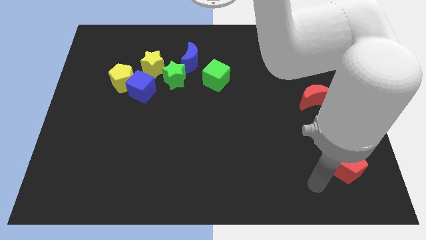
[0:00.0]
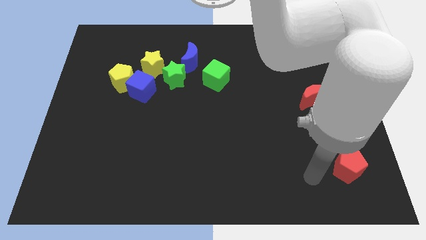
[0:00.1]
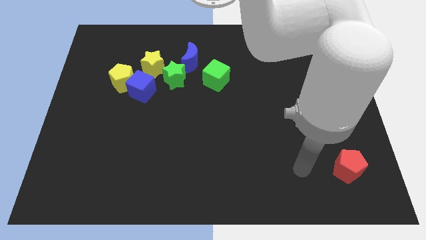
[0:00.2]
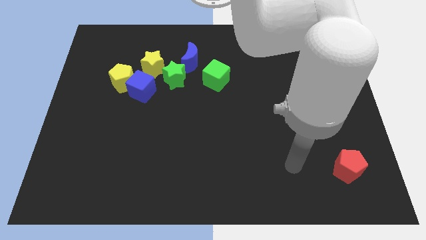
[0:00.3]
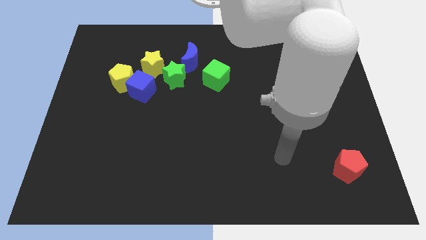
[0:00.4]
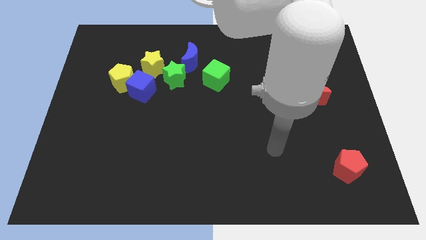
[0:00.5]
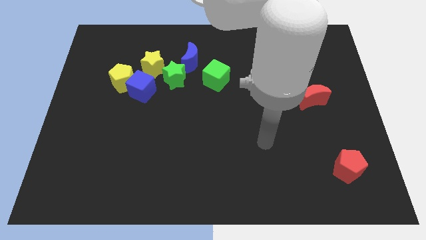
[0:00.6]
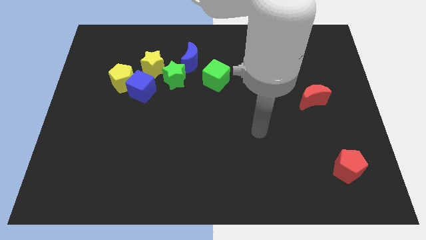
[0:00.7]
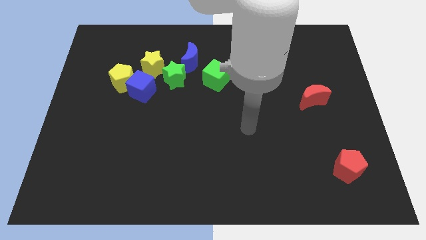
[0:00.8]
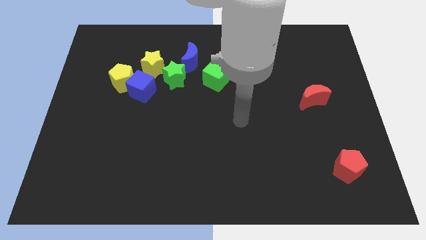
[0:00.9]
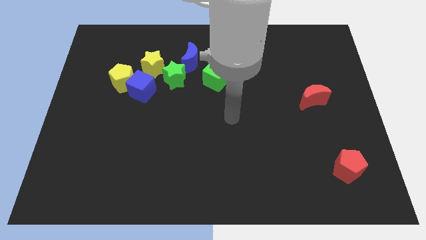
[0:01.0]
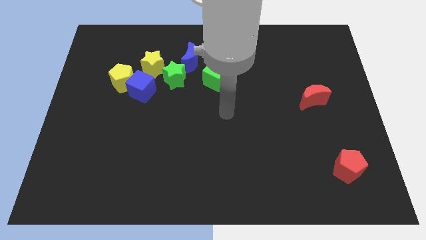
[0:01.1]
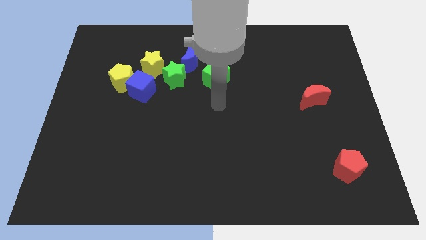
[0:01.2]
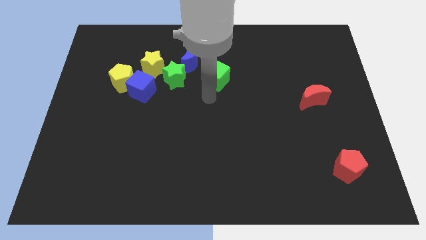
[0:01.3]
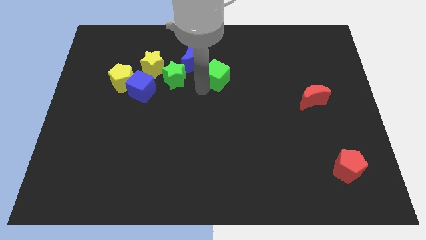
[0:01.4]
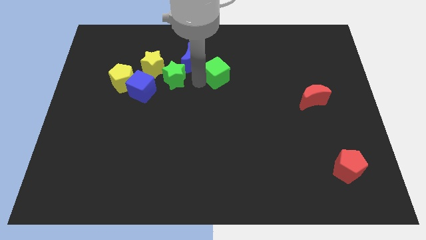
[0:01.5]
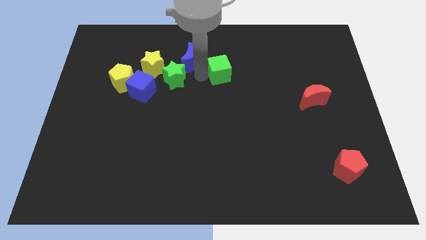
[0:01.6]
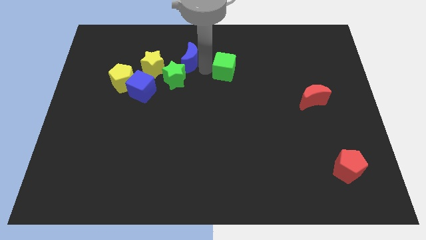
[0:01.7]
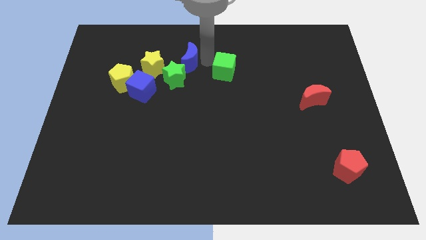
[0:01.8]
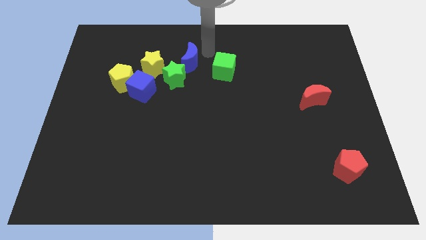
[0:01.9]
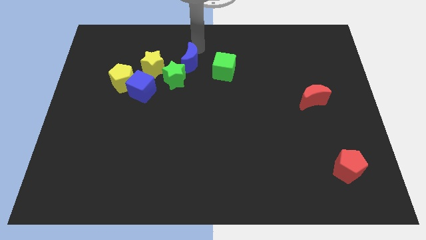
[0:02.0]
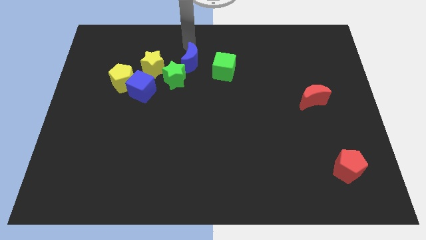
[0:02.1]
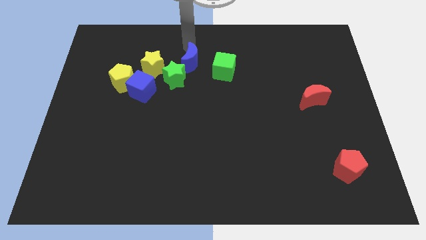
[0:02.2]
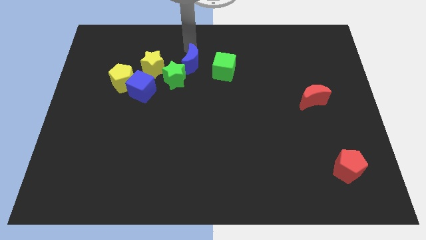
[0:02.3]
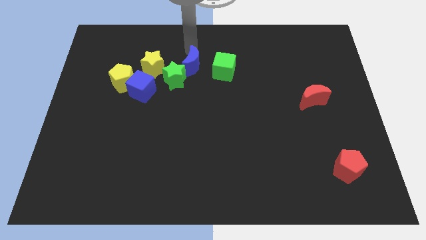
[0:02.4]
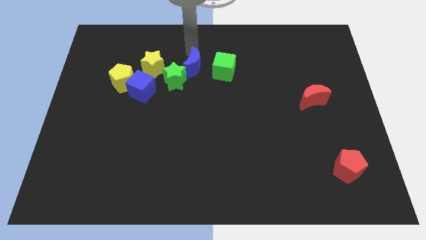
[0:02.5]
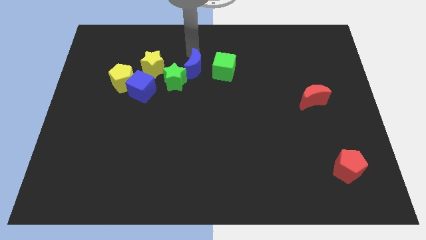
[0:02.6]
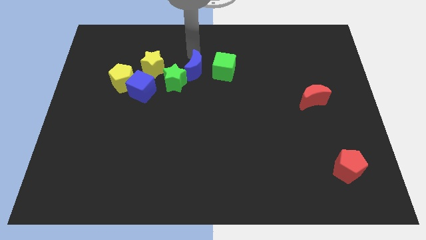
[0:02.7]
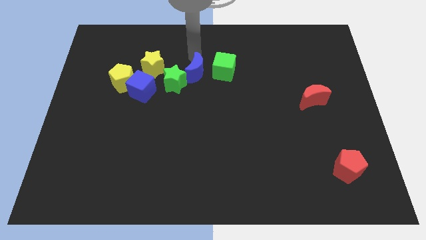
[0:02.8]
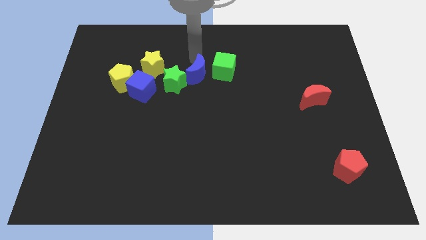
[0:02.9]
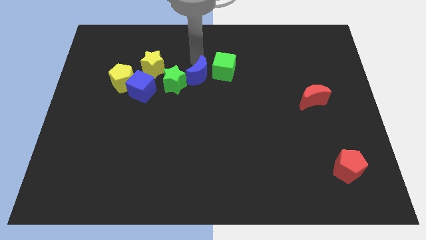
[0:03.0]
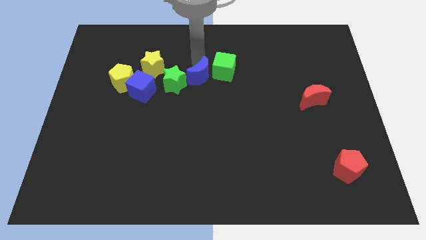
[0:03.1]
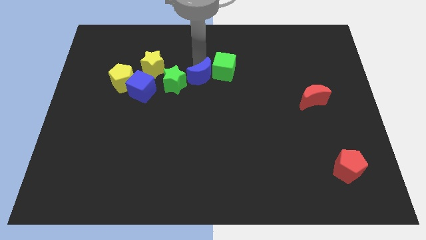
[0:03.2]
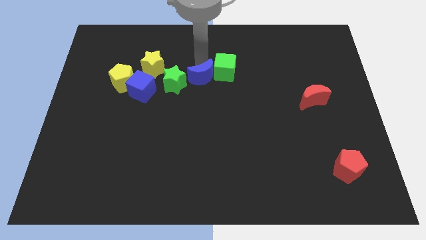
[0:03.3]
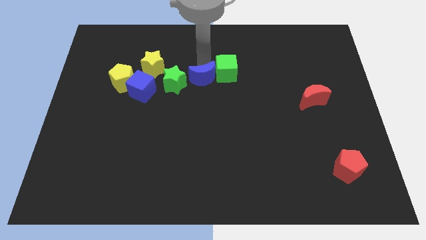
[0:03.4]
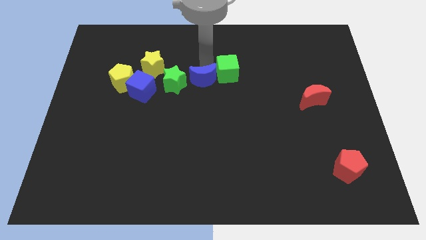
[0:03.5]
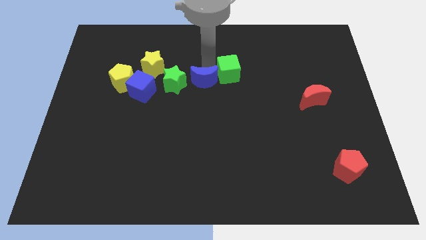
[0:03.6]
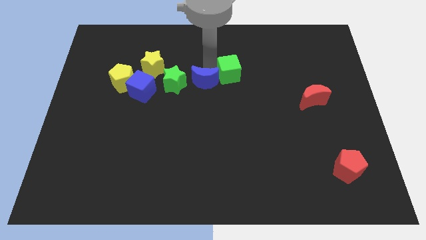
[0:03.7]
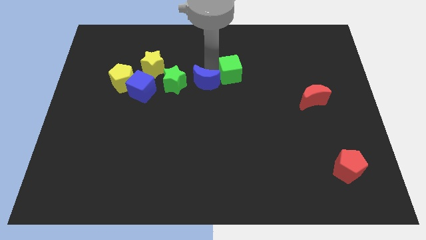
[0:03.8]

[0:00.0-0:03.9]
push the blue moon downwards a bit

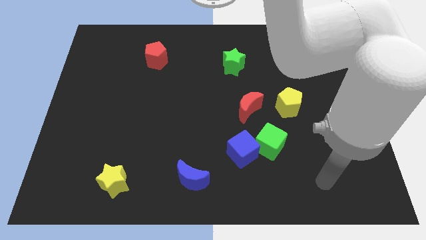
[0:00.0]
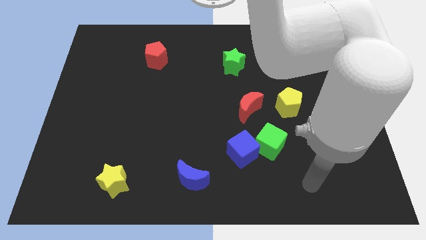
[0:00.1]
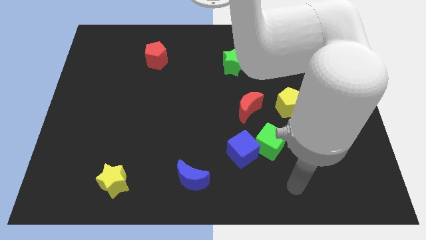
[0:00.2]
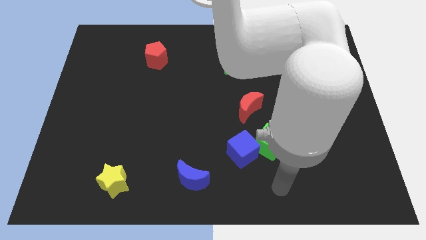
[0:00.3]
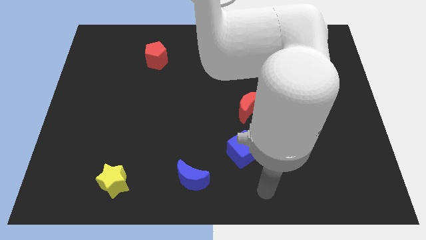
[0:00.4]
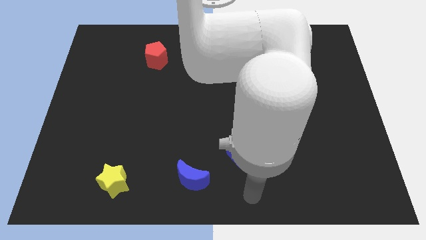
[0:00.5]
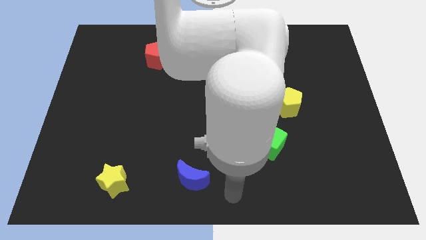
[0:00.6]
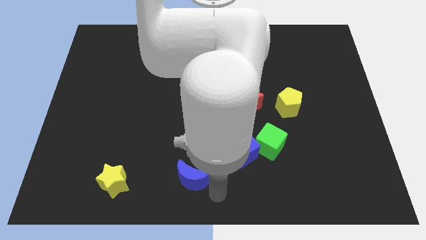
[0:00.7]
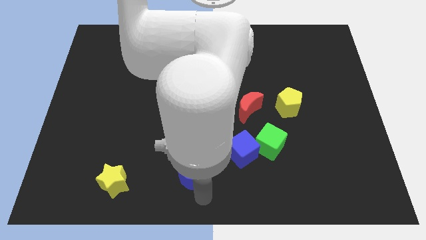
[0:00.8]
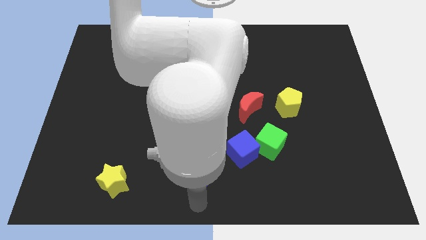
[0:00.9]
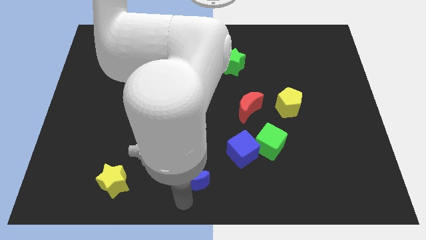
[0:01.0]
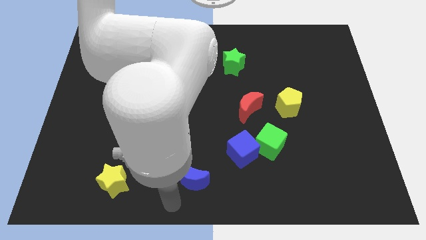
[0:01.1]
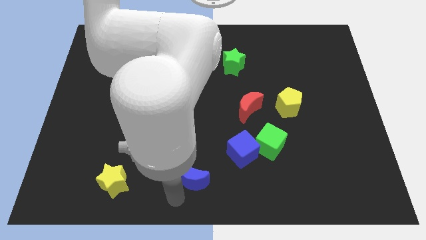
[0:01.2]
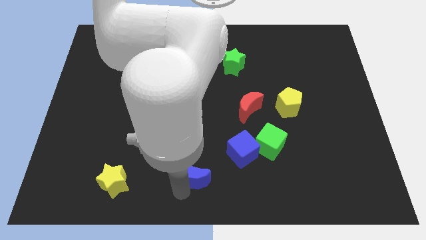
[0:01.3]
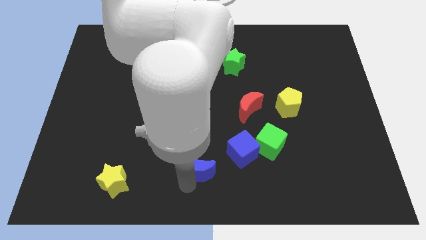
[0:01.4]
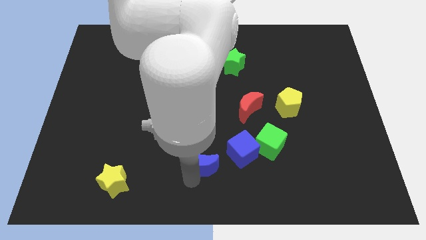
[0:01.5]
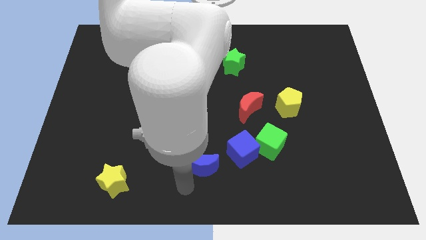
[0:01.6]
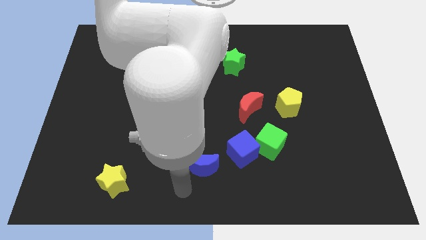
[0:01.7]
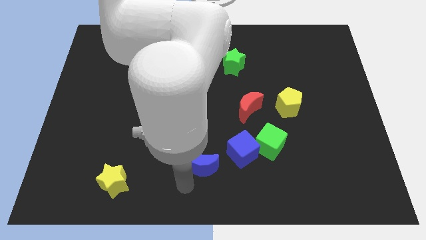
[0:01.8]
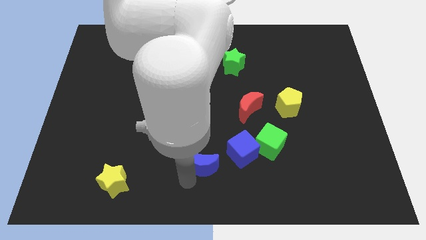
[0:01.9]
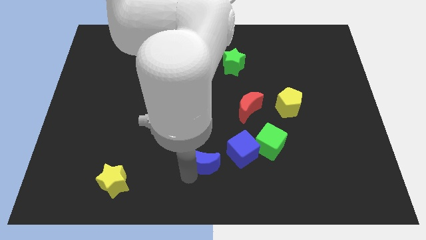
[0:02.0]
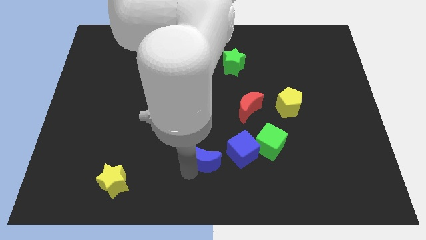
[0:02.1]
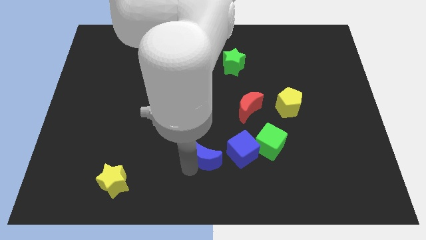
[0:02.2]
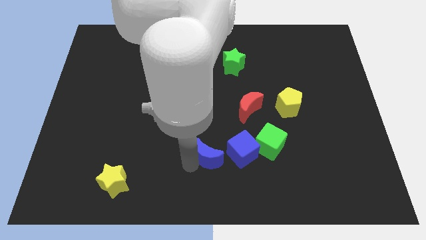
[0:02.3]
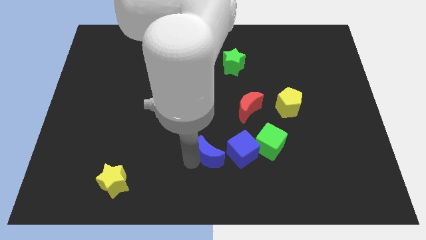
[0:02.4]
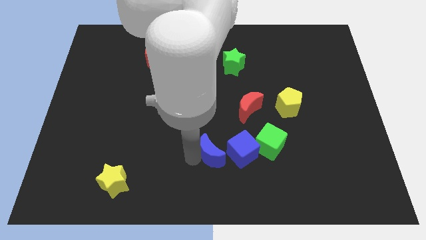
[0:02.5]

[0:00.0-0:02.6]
slightly push the blue moon up and then to the right

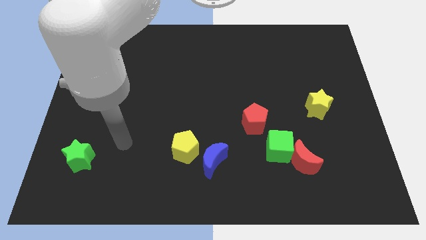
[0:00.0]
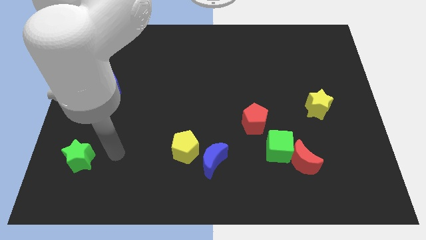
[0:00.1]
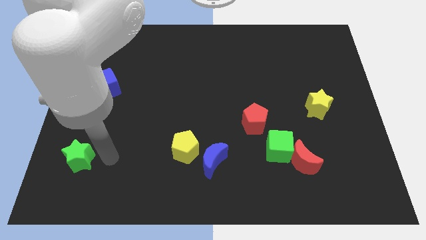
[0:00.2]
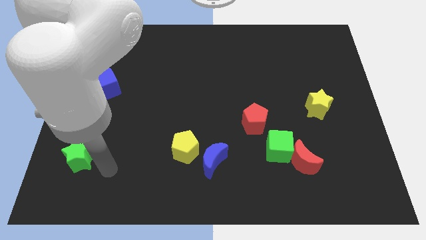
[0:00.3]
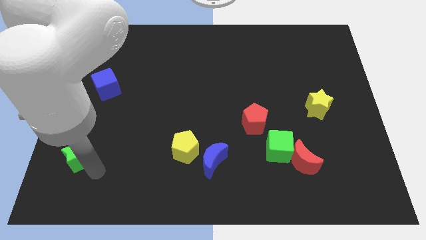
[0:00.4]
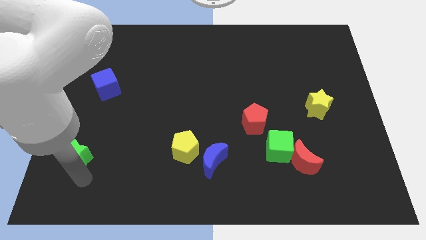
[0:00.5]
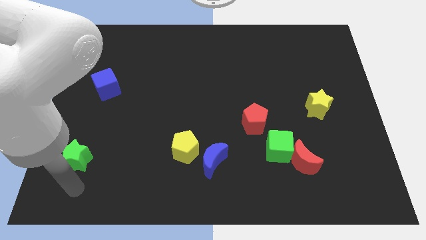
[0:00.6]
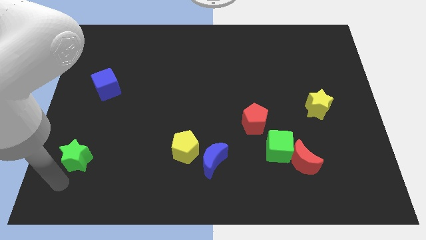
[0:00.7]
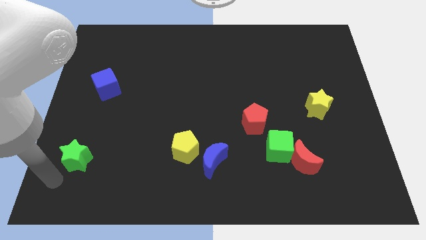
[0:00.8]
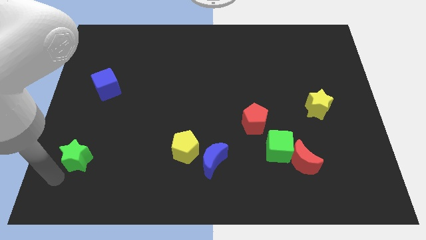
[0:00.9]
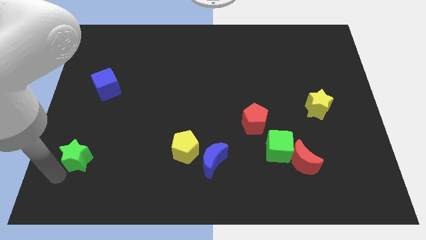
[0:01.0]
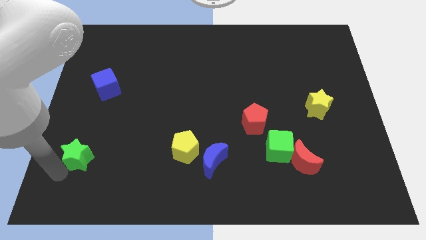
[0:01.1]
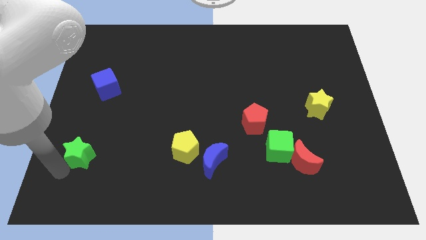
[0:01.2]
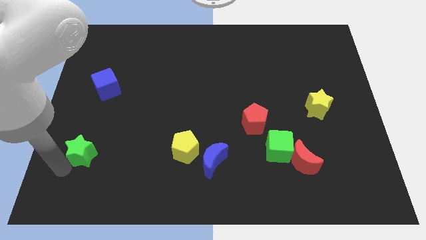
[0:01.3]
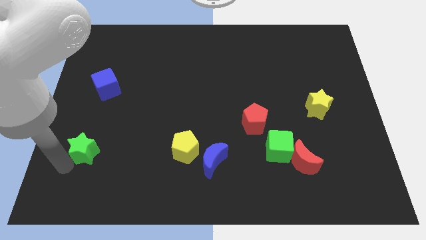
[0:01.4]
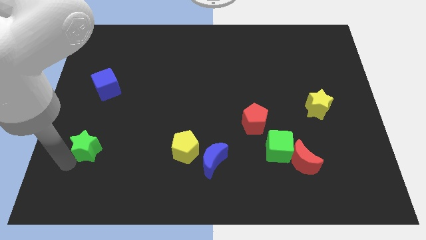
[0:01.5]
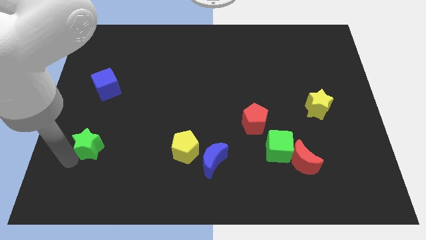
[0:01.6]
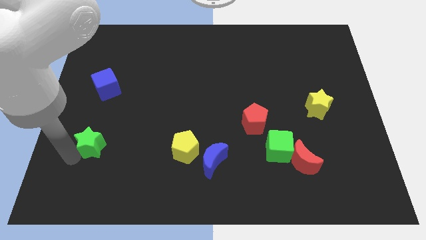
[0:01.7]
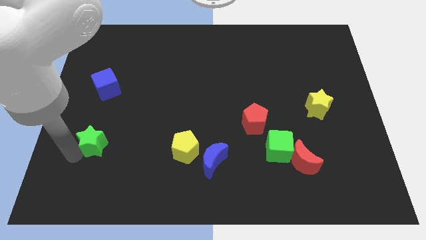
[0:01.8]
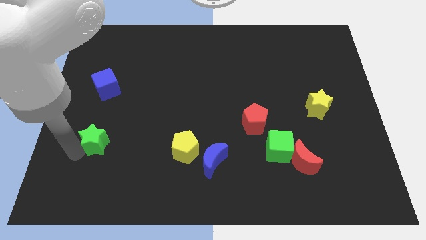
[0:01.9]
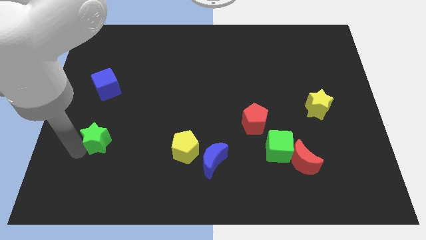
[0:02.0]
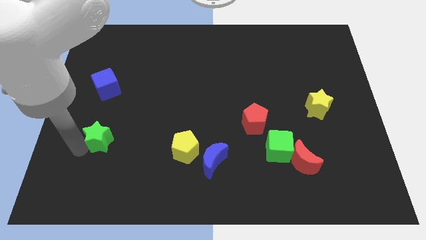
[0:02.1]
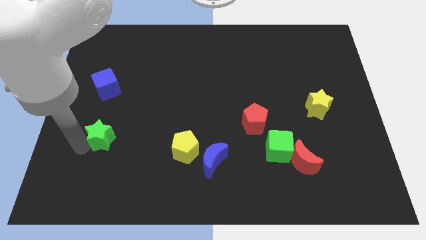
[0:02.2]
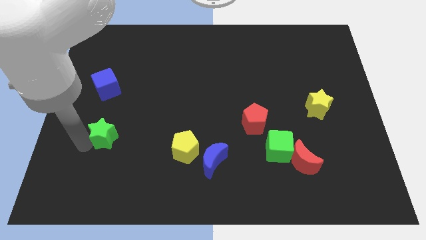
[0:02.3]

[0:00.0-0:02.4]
push the green star a bit up and to the right
